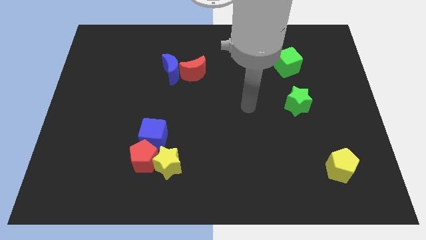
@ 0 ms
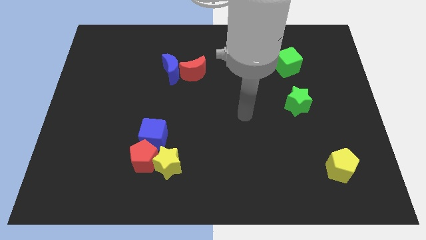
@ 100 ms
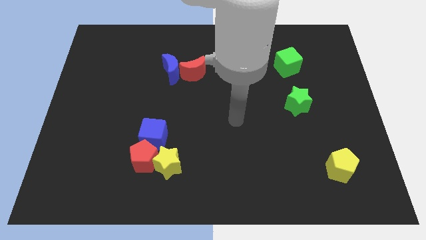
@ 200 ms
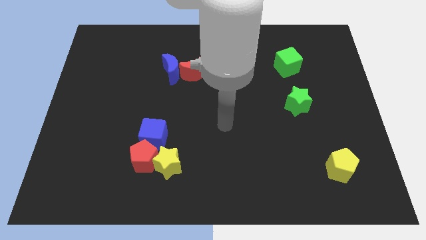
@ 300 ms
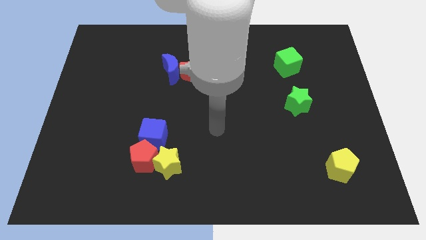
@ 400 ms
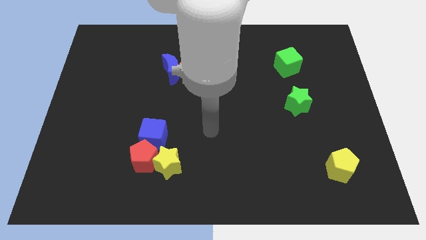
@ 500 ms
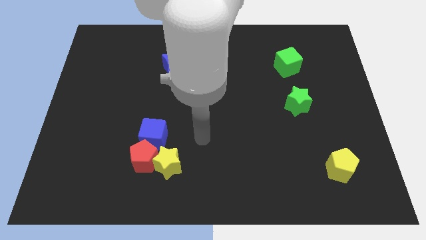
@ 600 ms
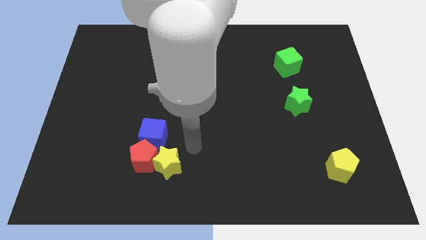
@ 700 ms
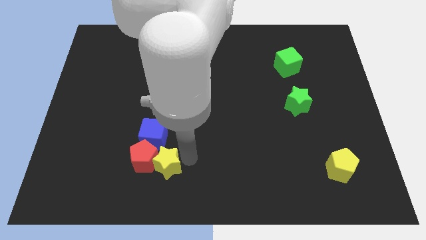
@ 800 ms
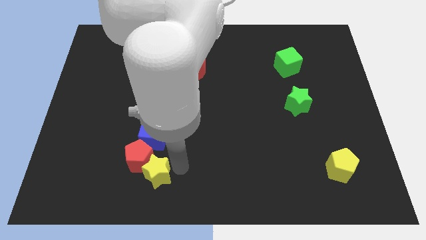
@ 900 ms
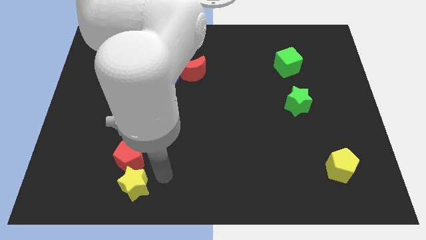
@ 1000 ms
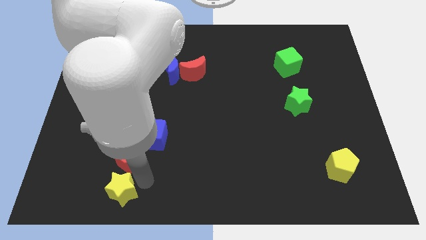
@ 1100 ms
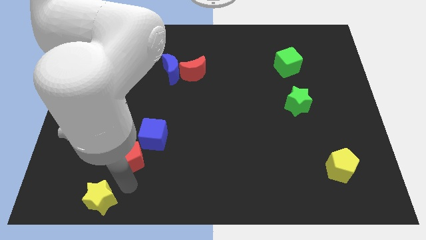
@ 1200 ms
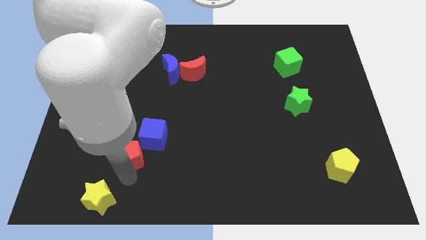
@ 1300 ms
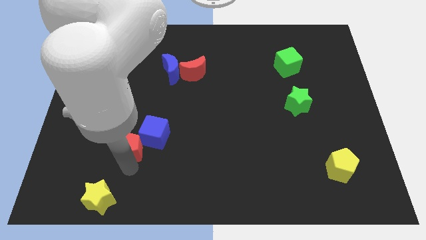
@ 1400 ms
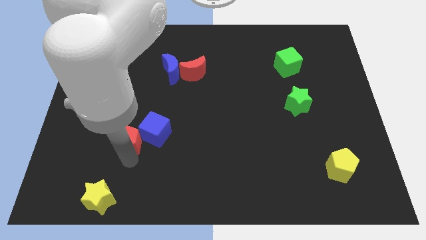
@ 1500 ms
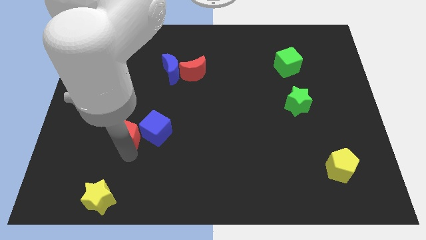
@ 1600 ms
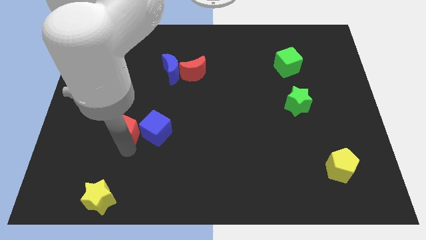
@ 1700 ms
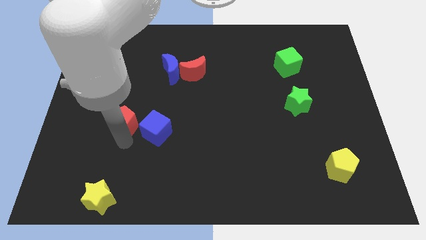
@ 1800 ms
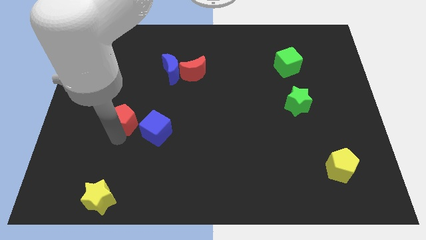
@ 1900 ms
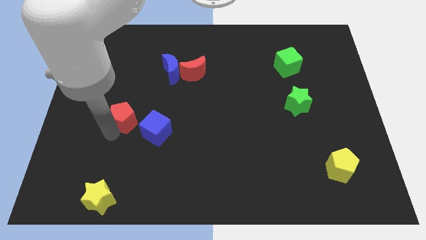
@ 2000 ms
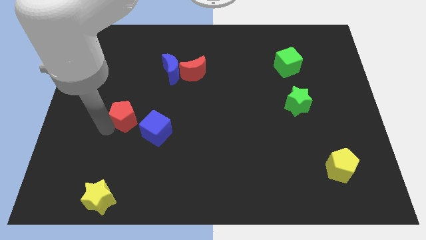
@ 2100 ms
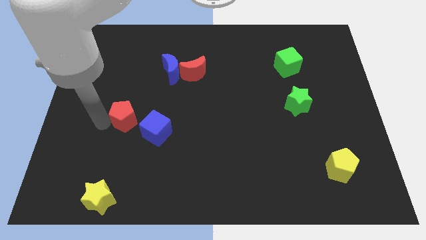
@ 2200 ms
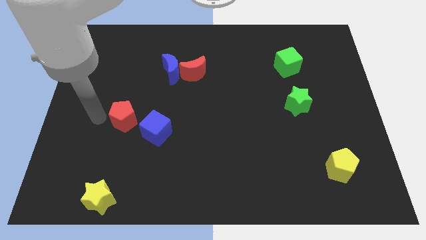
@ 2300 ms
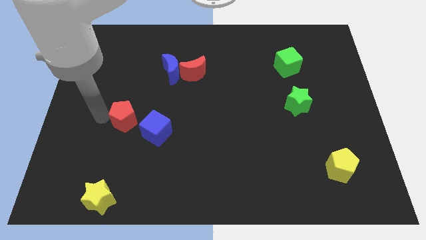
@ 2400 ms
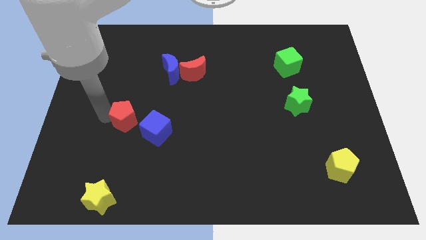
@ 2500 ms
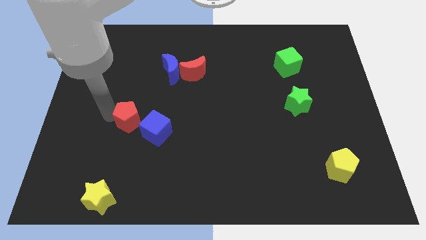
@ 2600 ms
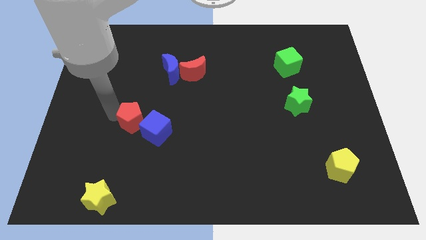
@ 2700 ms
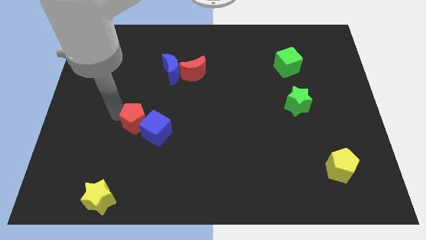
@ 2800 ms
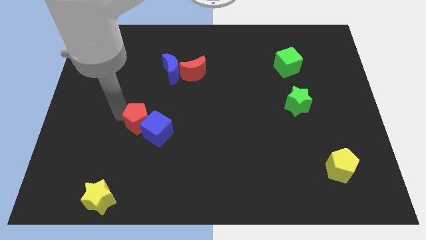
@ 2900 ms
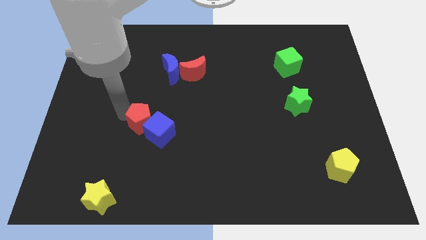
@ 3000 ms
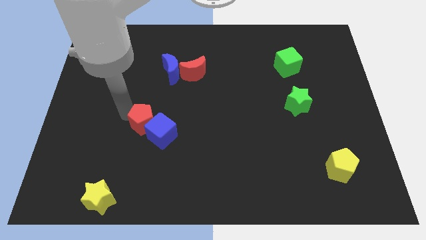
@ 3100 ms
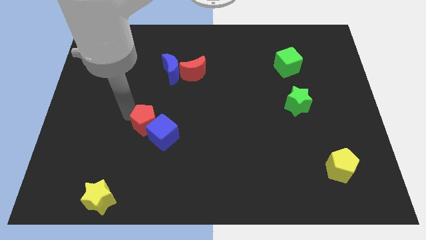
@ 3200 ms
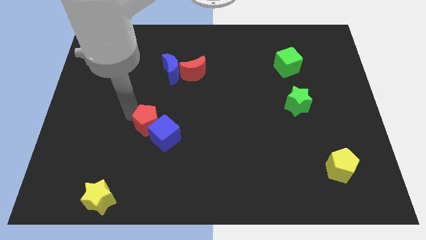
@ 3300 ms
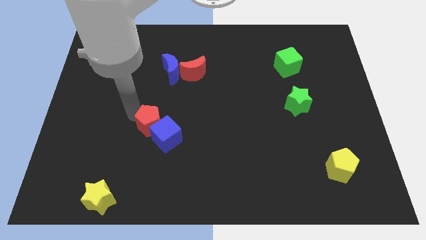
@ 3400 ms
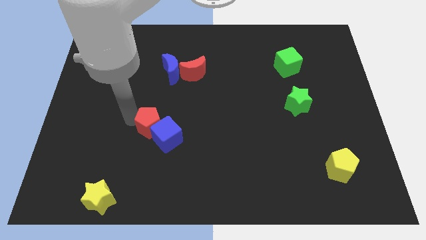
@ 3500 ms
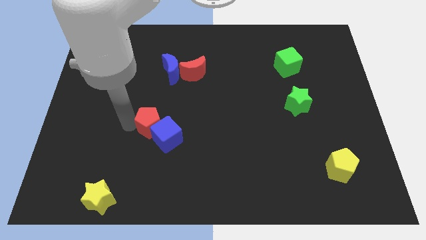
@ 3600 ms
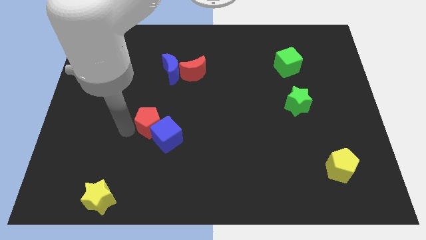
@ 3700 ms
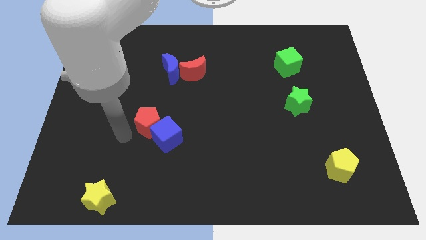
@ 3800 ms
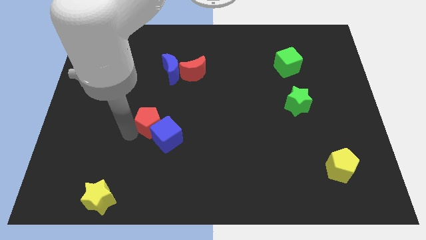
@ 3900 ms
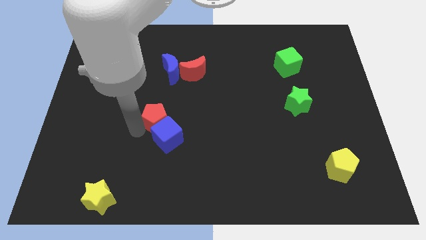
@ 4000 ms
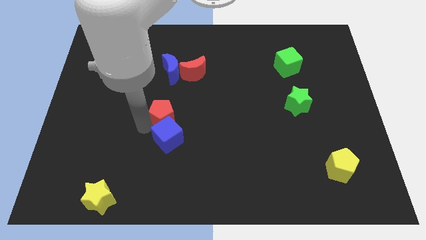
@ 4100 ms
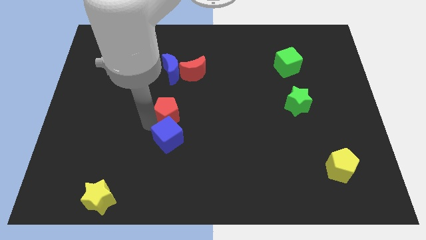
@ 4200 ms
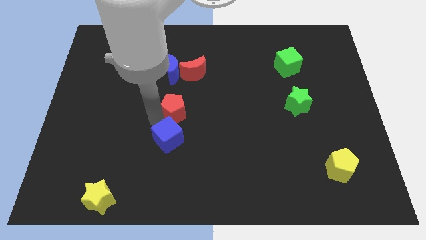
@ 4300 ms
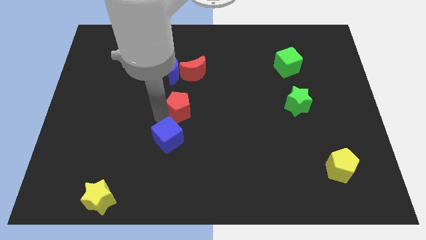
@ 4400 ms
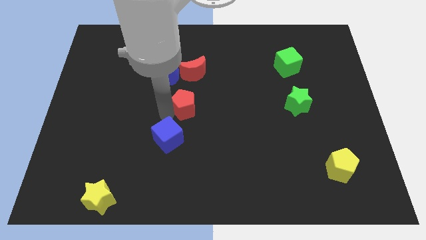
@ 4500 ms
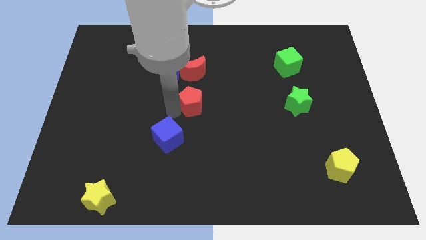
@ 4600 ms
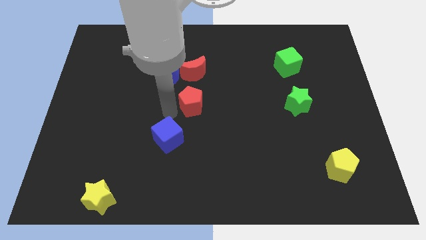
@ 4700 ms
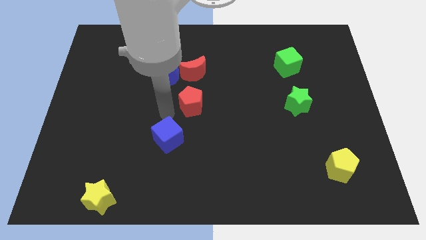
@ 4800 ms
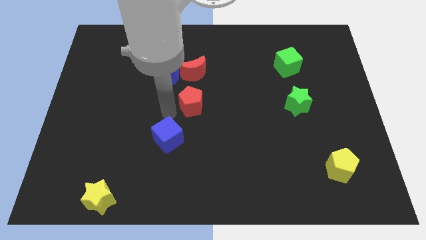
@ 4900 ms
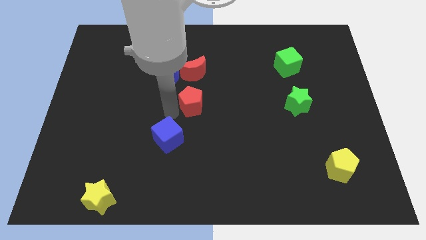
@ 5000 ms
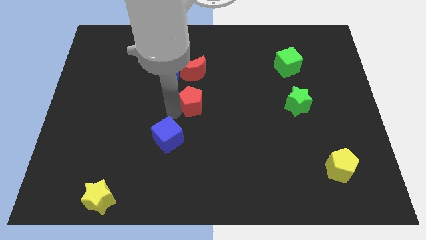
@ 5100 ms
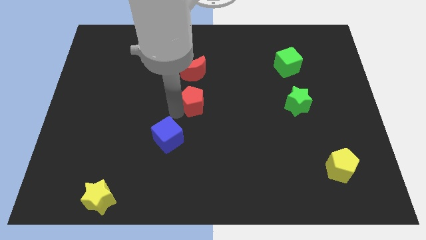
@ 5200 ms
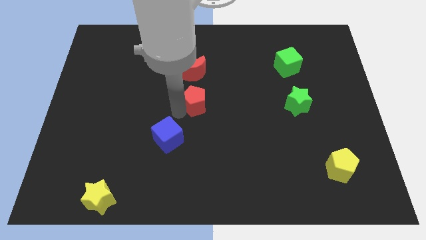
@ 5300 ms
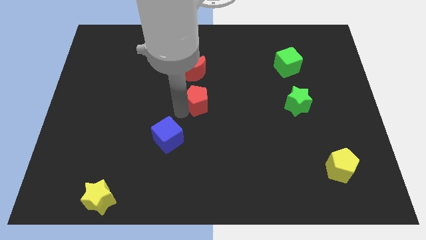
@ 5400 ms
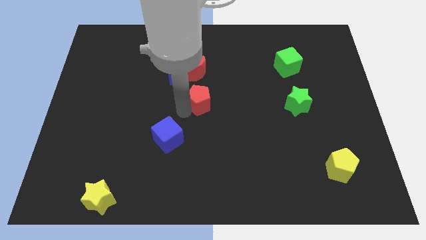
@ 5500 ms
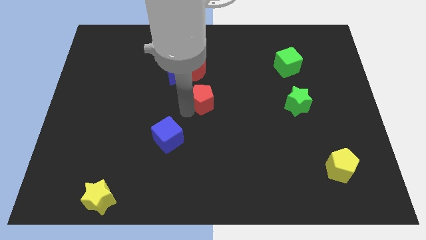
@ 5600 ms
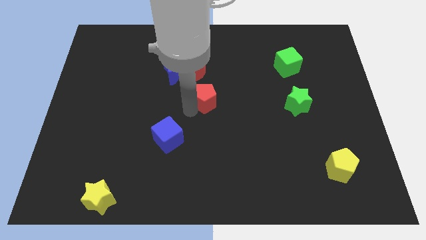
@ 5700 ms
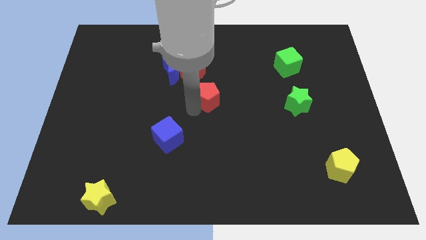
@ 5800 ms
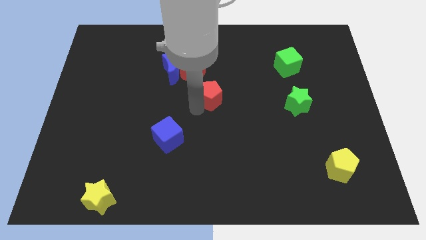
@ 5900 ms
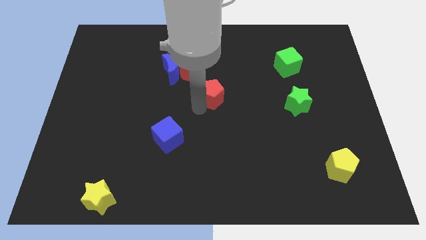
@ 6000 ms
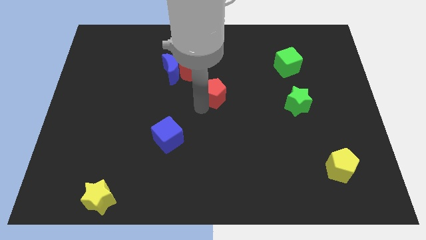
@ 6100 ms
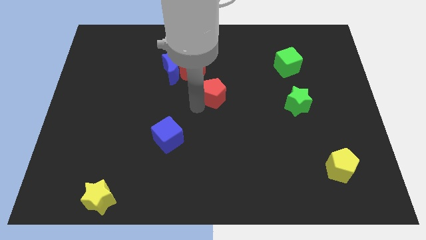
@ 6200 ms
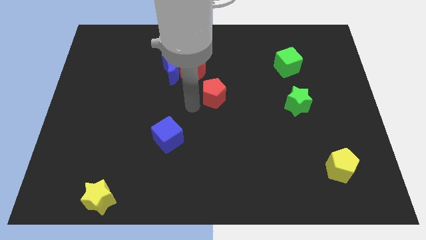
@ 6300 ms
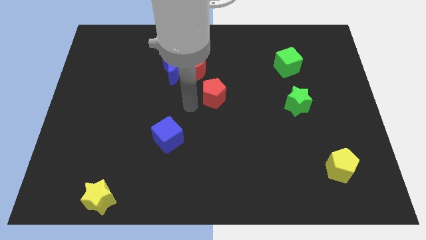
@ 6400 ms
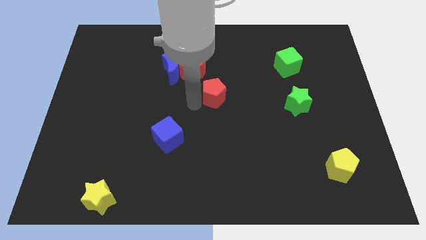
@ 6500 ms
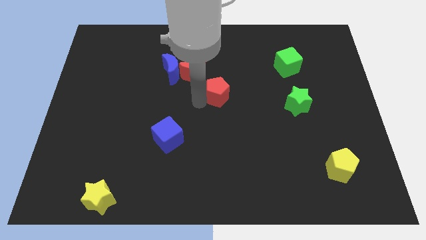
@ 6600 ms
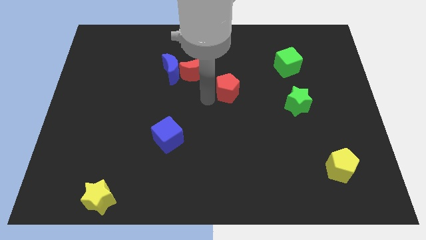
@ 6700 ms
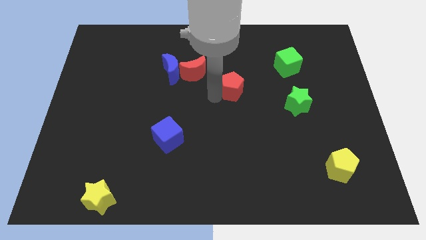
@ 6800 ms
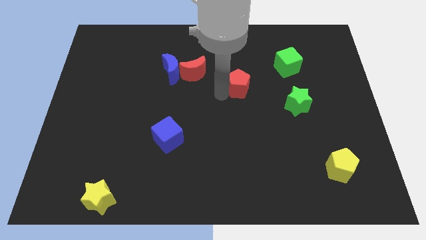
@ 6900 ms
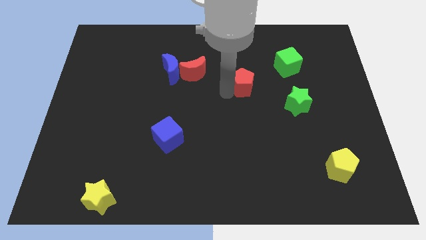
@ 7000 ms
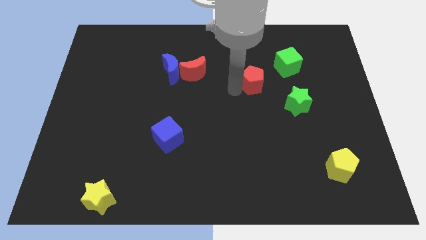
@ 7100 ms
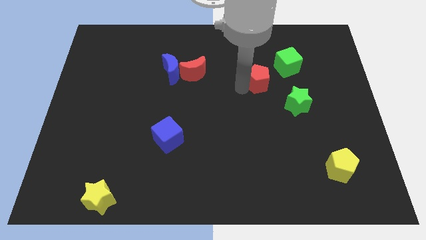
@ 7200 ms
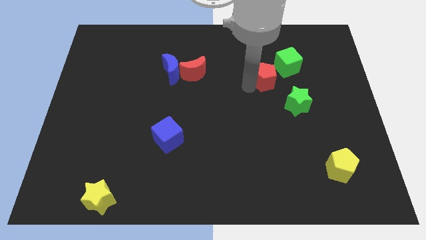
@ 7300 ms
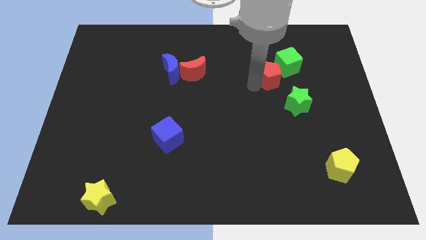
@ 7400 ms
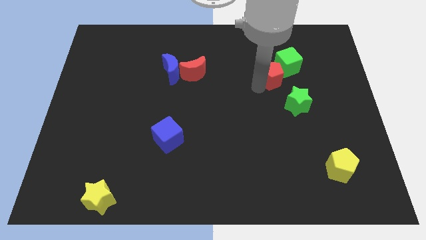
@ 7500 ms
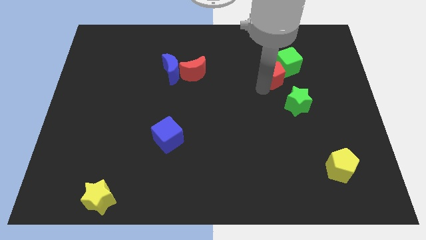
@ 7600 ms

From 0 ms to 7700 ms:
move the red pentagon to the green cube

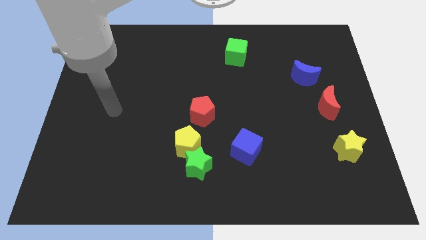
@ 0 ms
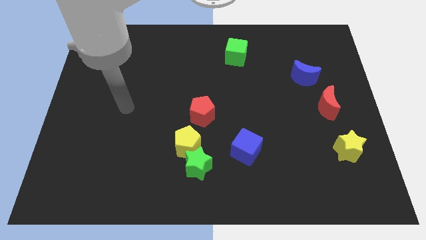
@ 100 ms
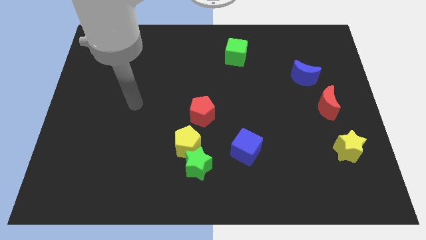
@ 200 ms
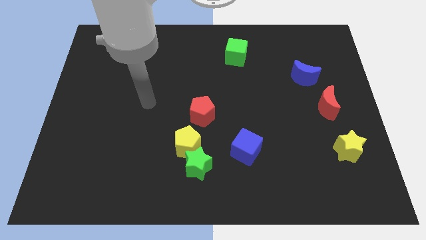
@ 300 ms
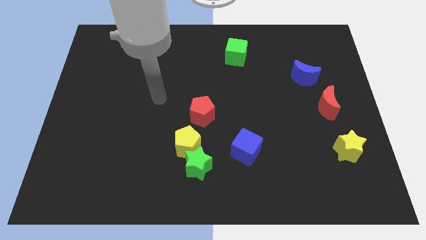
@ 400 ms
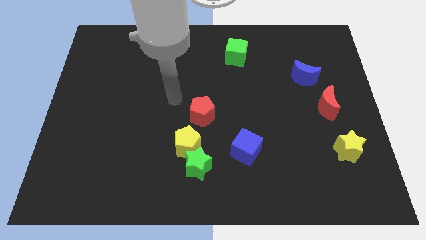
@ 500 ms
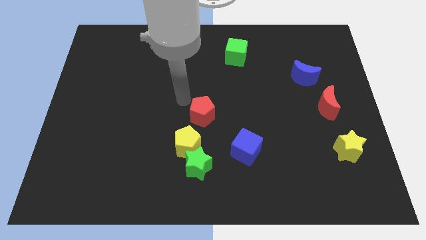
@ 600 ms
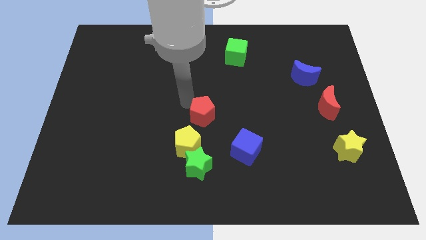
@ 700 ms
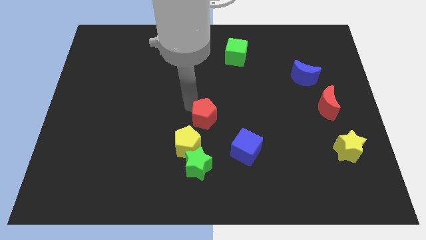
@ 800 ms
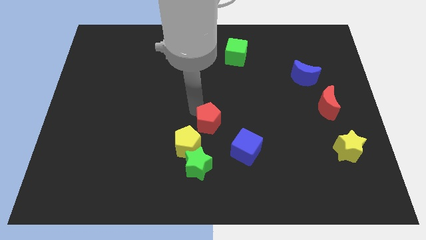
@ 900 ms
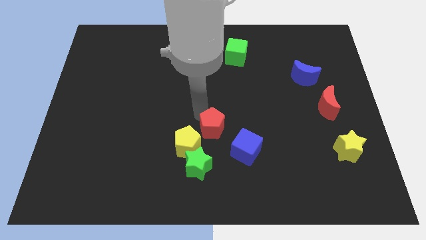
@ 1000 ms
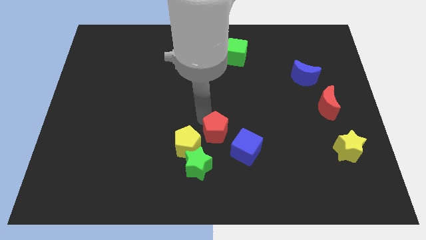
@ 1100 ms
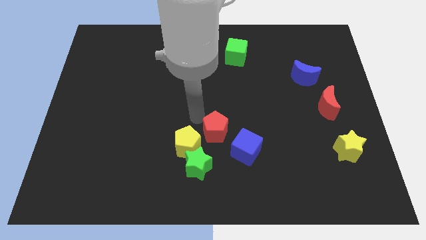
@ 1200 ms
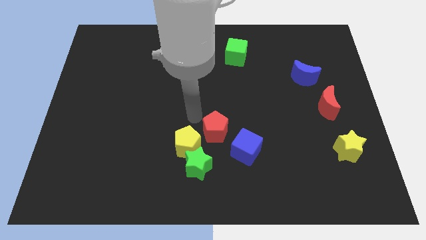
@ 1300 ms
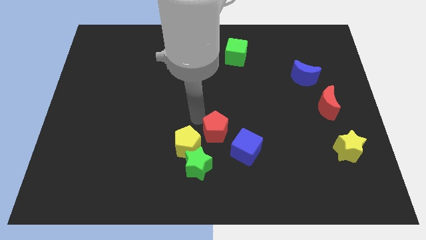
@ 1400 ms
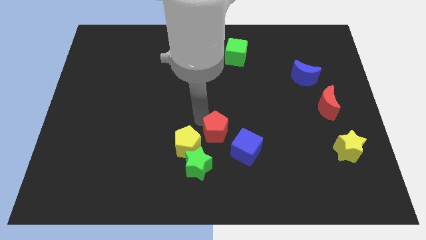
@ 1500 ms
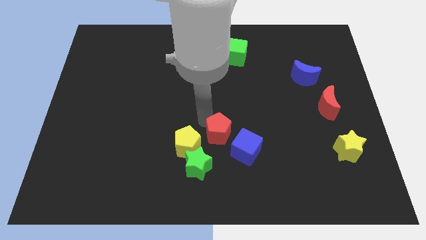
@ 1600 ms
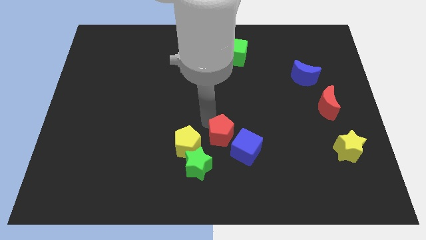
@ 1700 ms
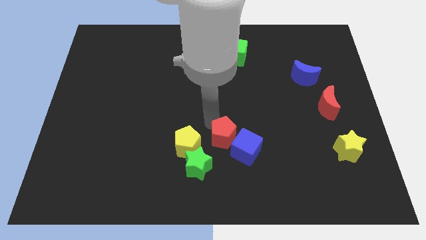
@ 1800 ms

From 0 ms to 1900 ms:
put the red pentagon close to the blue cube
